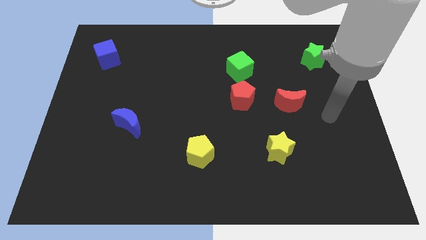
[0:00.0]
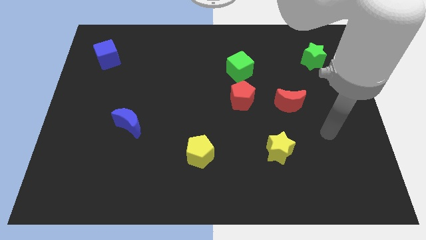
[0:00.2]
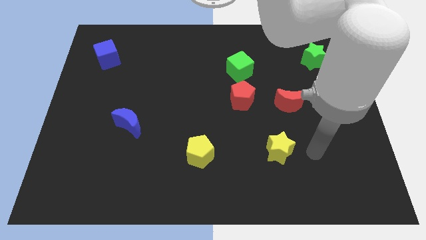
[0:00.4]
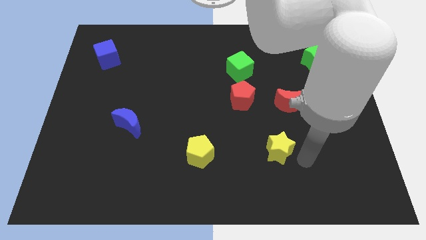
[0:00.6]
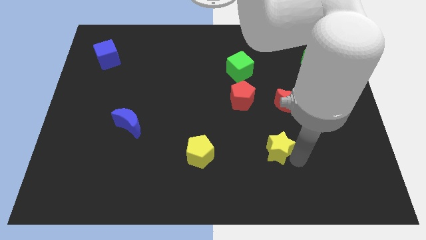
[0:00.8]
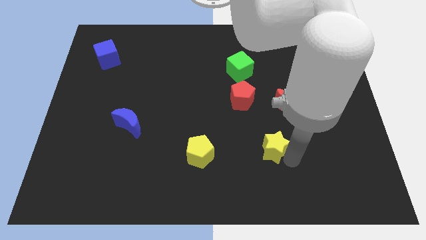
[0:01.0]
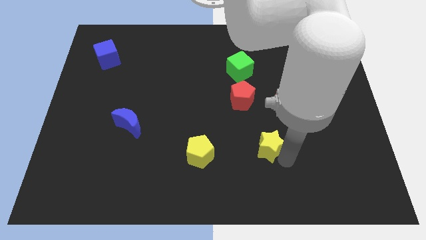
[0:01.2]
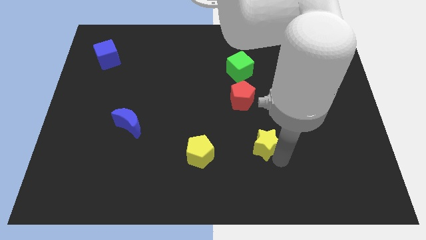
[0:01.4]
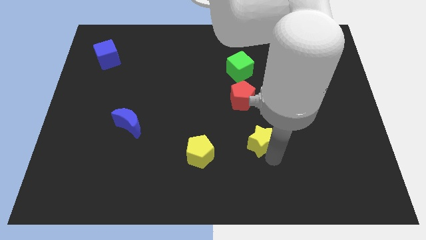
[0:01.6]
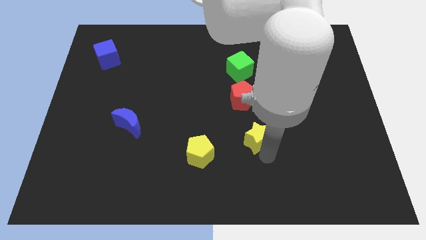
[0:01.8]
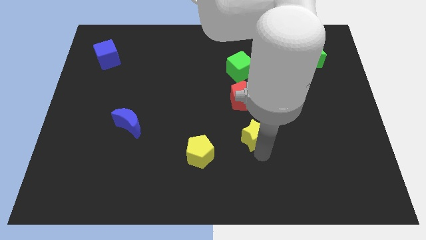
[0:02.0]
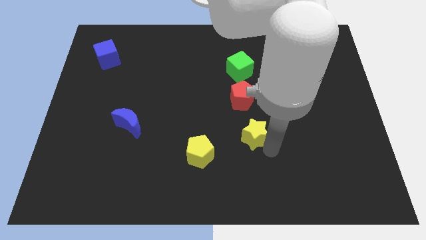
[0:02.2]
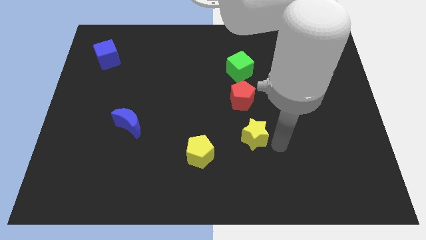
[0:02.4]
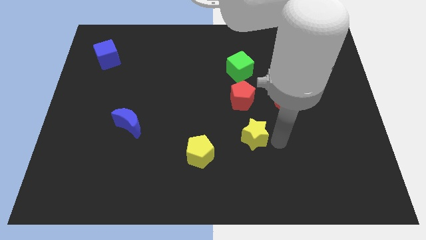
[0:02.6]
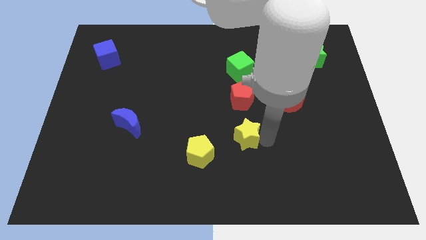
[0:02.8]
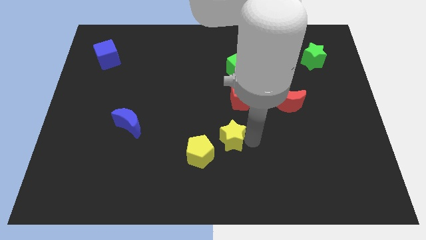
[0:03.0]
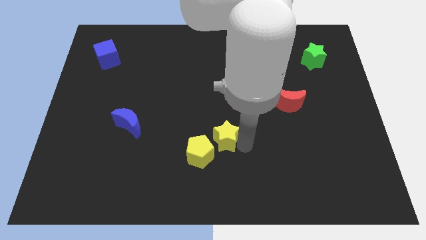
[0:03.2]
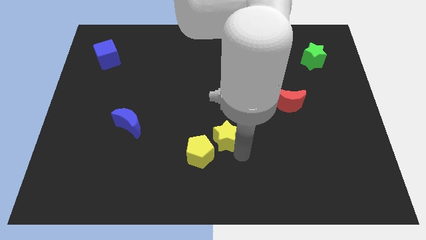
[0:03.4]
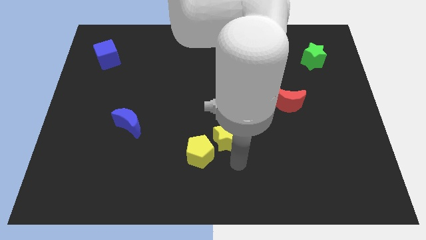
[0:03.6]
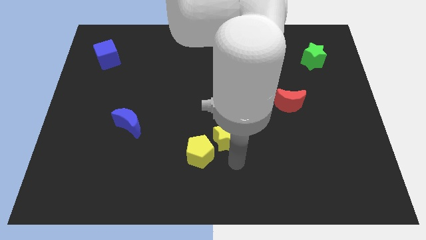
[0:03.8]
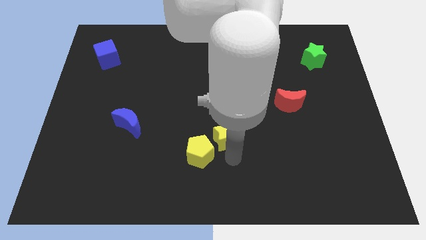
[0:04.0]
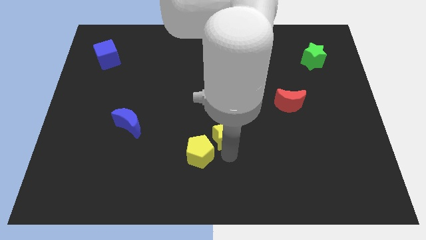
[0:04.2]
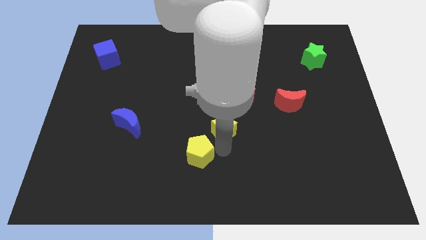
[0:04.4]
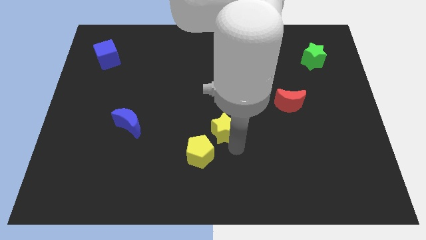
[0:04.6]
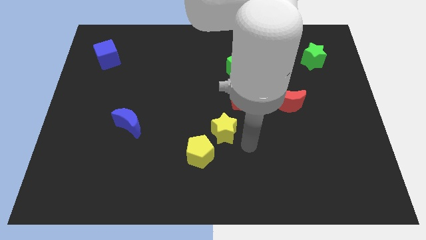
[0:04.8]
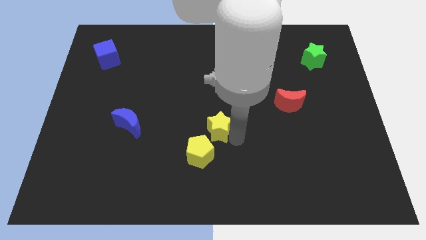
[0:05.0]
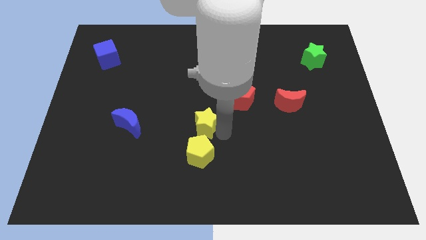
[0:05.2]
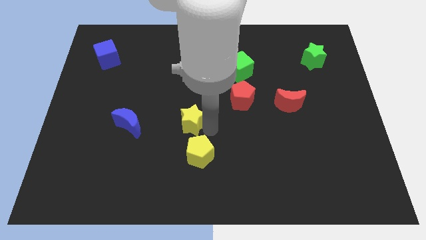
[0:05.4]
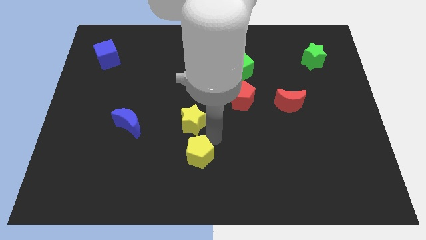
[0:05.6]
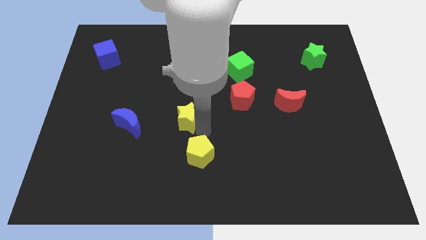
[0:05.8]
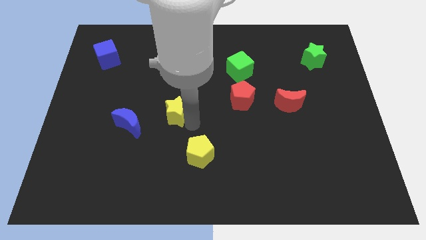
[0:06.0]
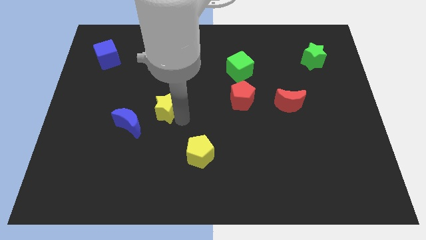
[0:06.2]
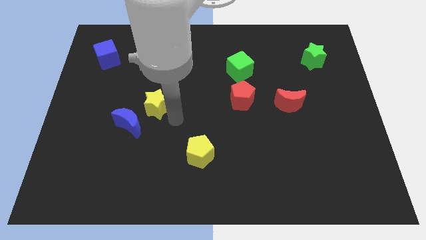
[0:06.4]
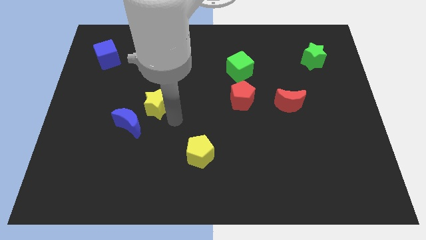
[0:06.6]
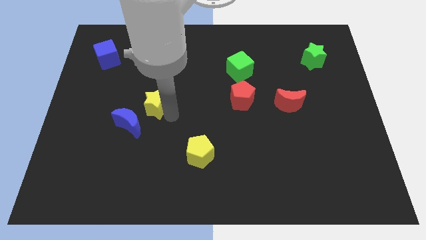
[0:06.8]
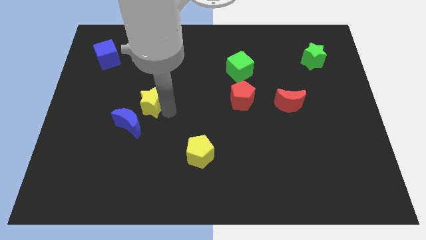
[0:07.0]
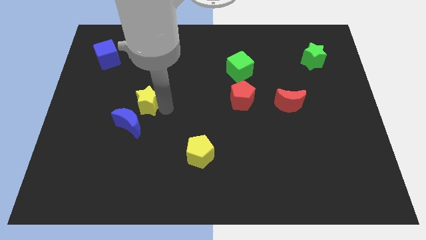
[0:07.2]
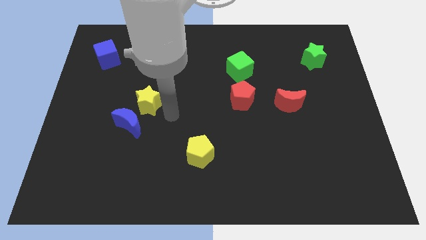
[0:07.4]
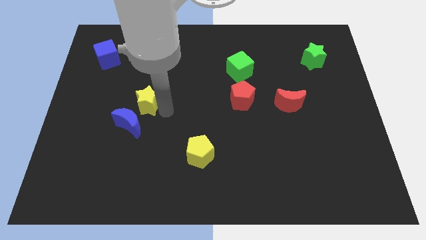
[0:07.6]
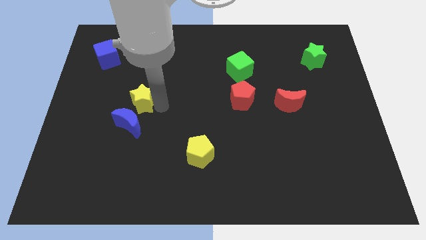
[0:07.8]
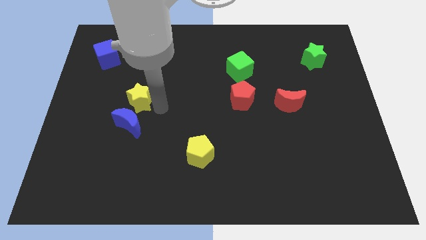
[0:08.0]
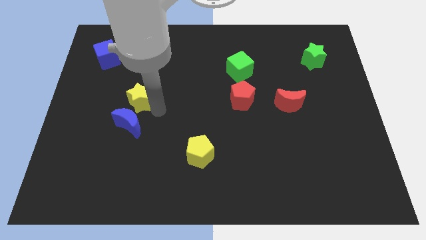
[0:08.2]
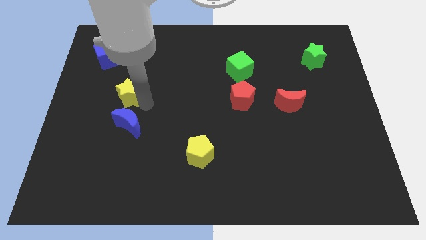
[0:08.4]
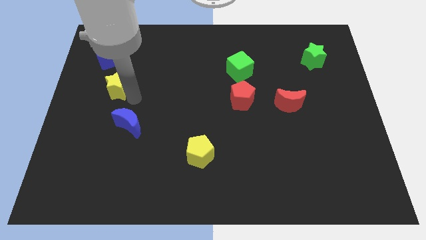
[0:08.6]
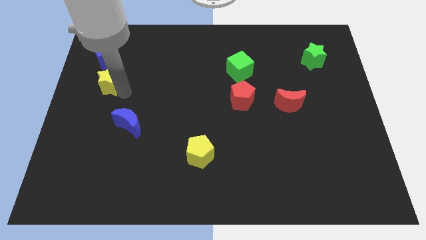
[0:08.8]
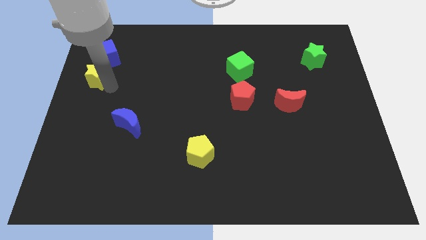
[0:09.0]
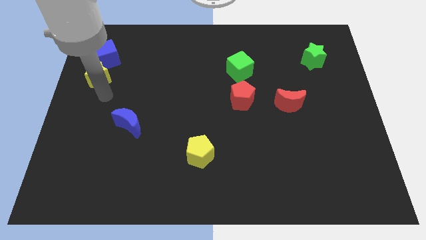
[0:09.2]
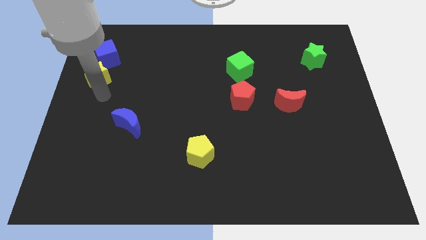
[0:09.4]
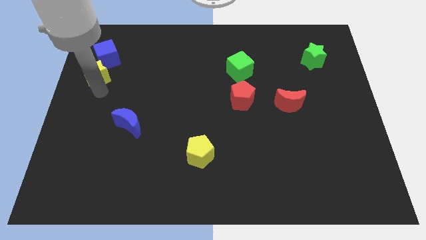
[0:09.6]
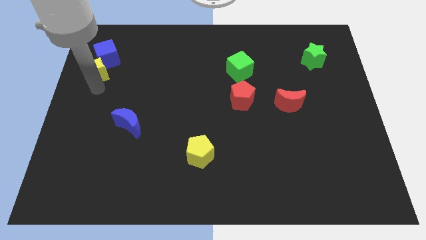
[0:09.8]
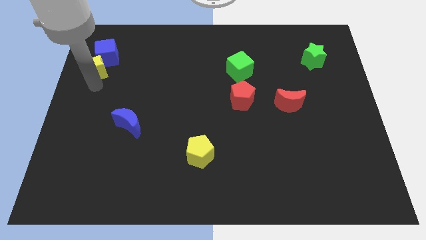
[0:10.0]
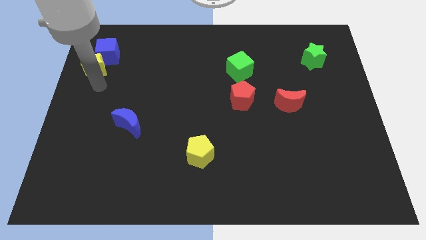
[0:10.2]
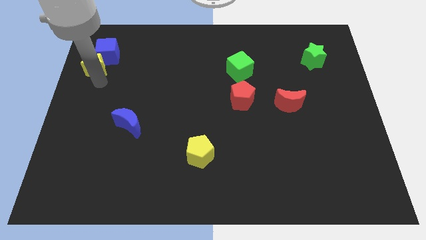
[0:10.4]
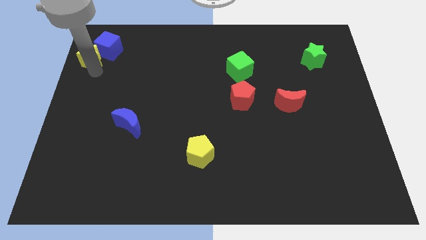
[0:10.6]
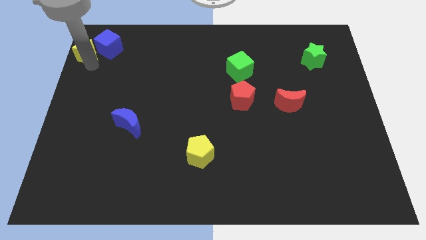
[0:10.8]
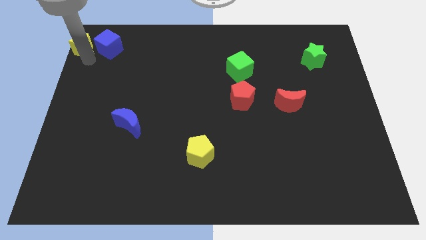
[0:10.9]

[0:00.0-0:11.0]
move the yellow star to the upper left corner

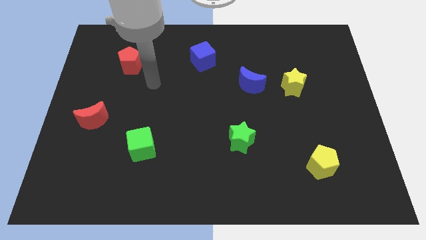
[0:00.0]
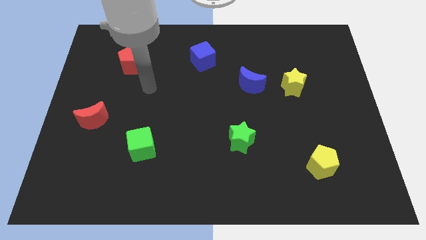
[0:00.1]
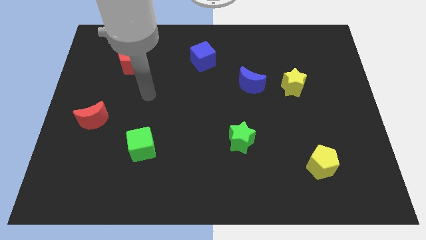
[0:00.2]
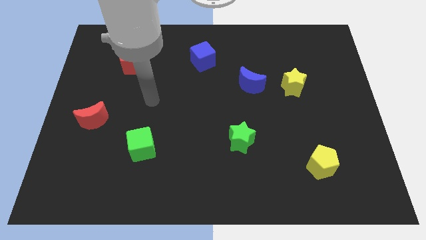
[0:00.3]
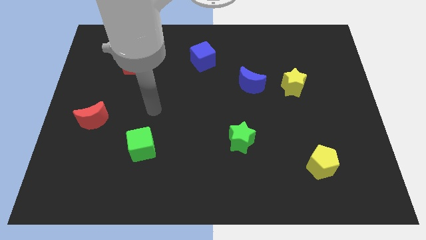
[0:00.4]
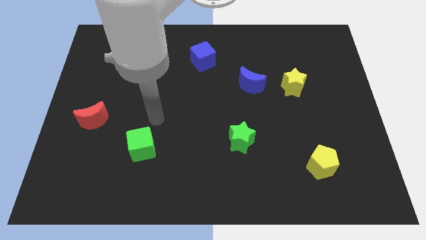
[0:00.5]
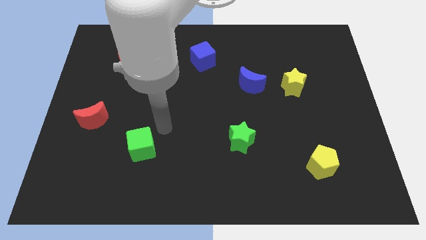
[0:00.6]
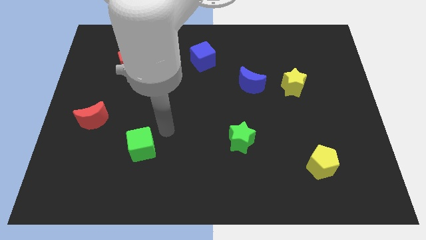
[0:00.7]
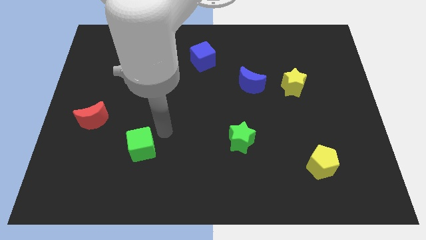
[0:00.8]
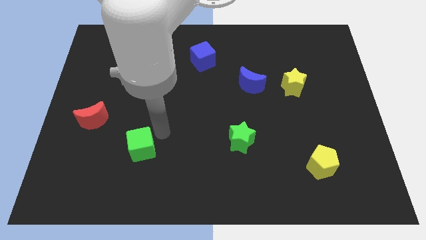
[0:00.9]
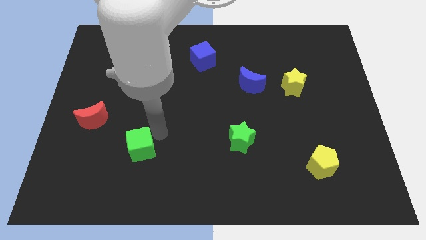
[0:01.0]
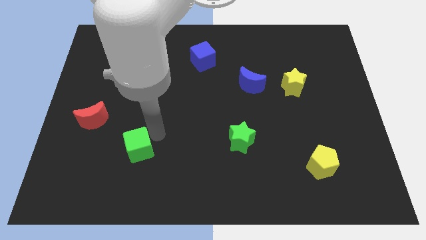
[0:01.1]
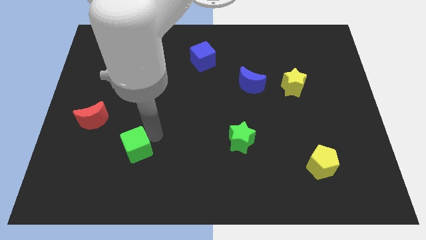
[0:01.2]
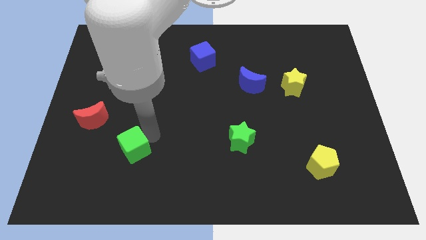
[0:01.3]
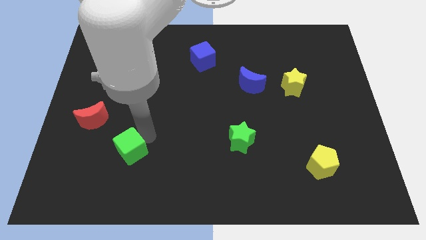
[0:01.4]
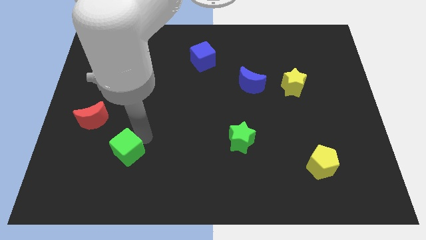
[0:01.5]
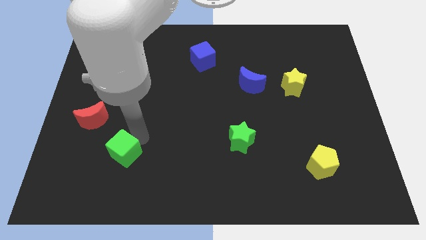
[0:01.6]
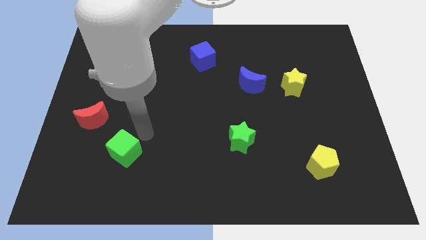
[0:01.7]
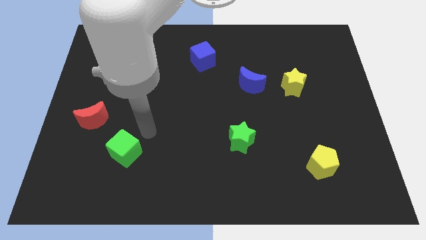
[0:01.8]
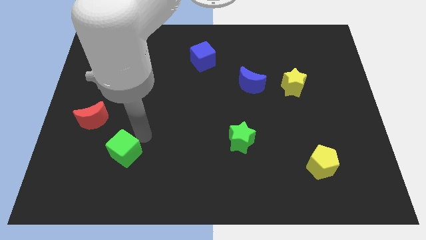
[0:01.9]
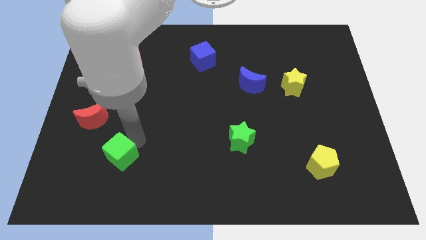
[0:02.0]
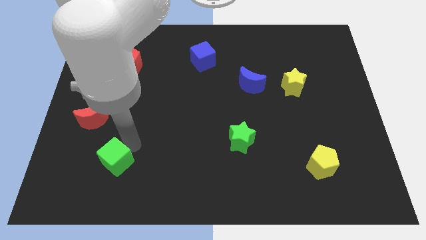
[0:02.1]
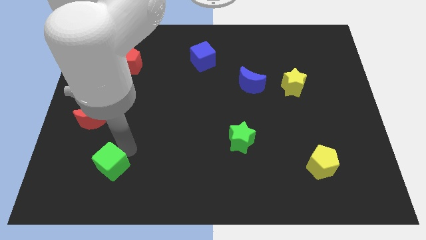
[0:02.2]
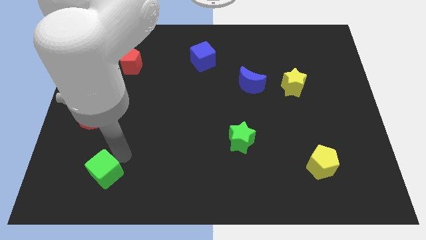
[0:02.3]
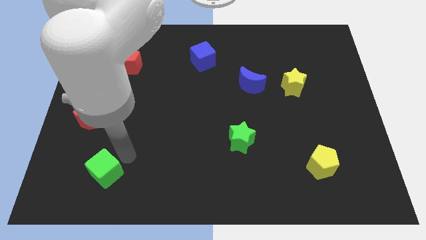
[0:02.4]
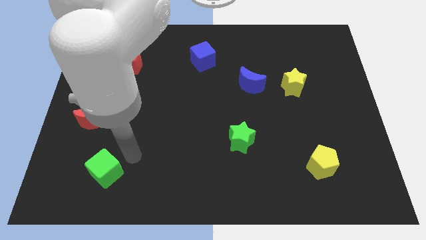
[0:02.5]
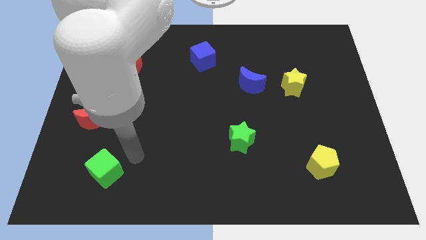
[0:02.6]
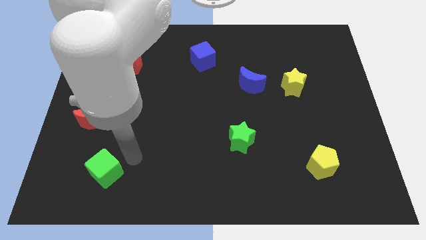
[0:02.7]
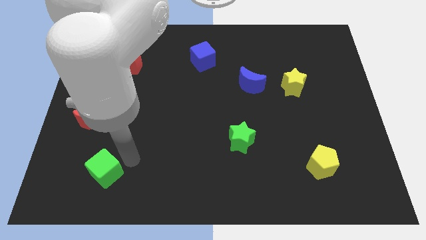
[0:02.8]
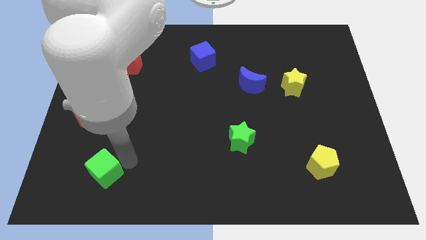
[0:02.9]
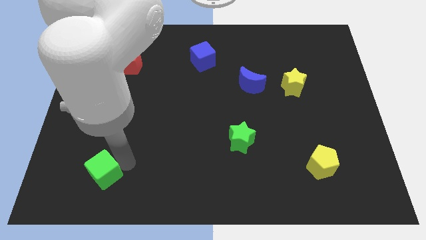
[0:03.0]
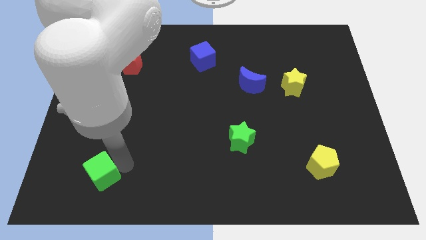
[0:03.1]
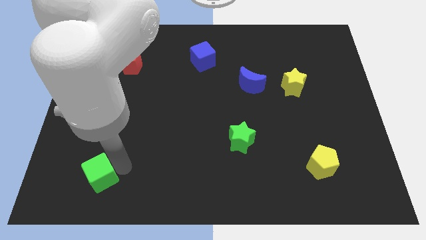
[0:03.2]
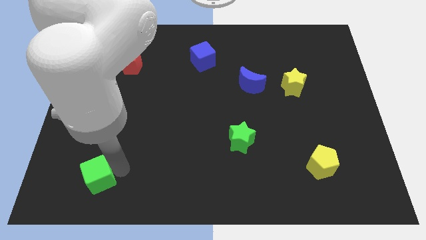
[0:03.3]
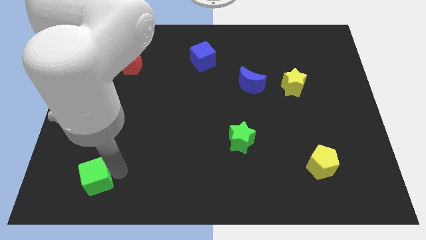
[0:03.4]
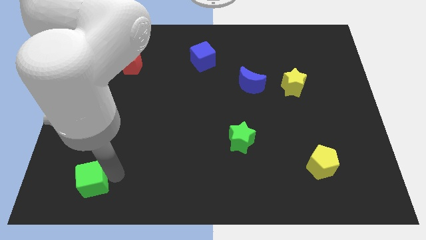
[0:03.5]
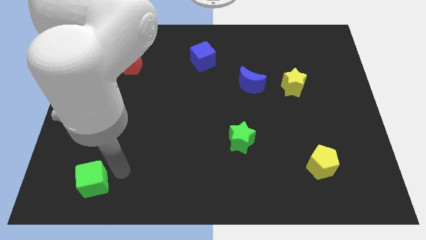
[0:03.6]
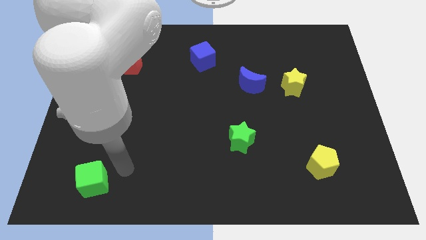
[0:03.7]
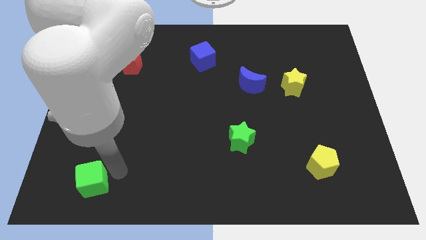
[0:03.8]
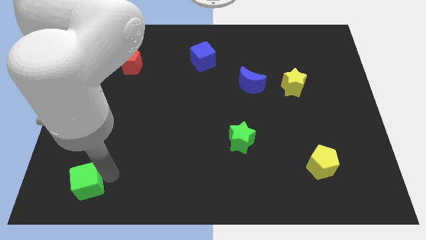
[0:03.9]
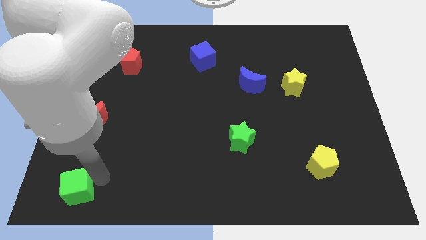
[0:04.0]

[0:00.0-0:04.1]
move the green cube to the bottom left of the board
